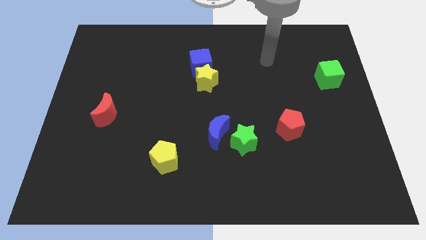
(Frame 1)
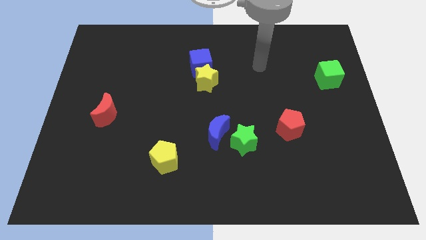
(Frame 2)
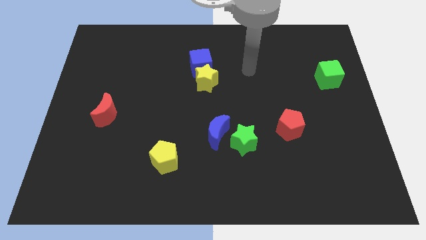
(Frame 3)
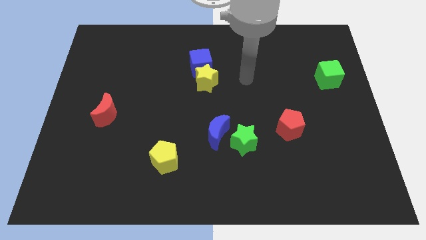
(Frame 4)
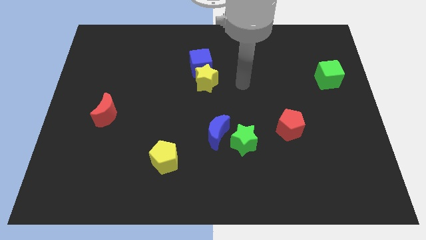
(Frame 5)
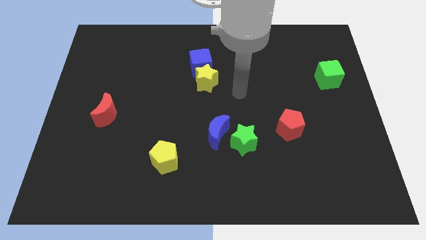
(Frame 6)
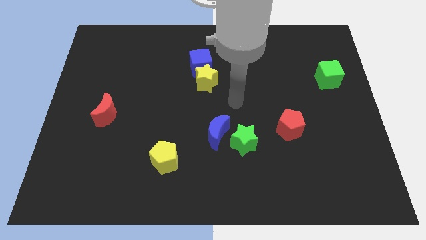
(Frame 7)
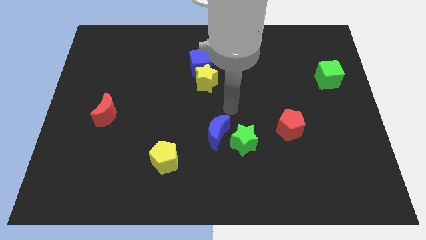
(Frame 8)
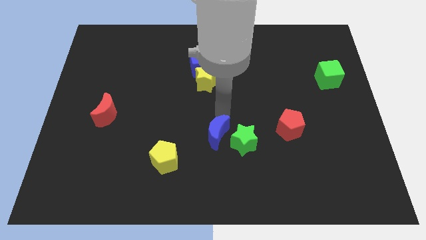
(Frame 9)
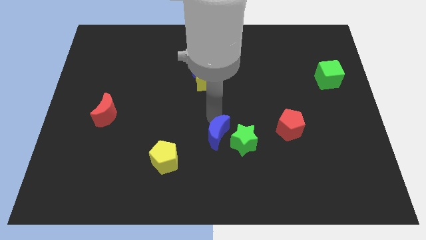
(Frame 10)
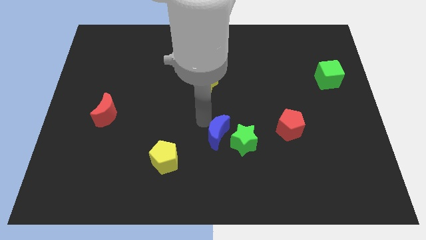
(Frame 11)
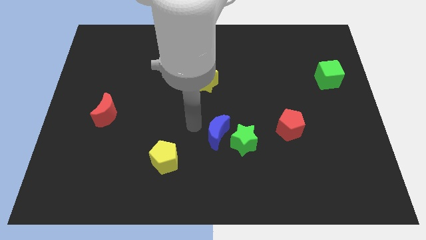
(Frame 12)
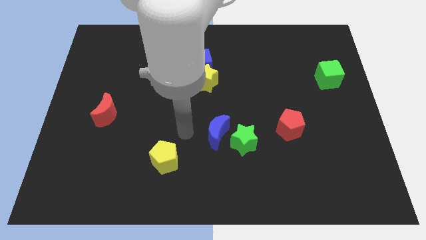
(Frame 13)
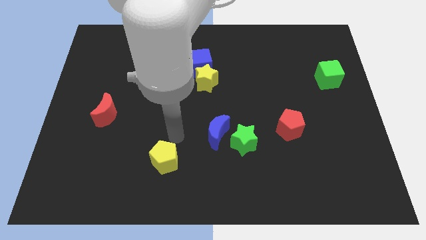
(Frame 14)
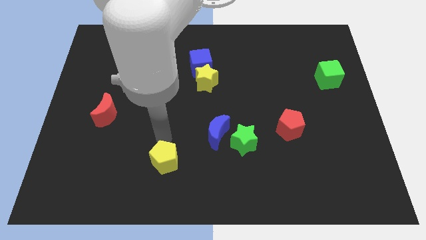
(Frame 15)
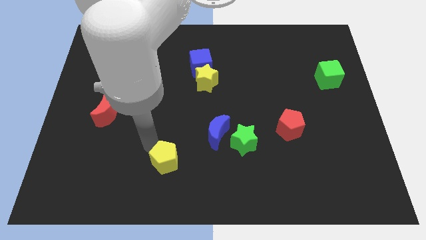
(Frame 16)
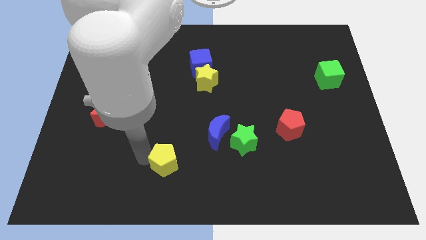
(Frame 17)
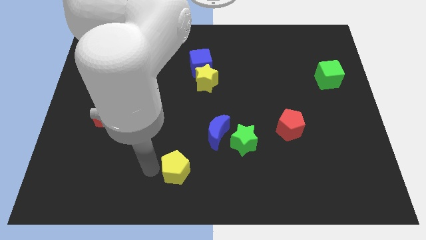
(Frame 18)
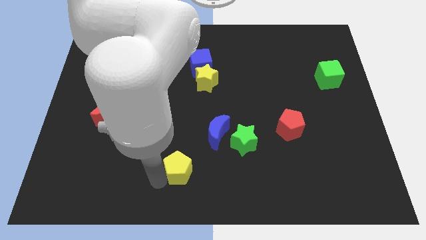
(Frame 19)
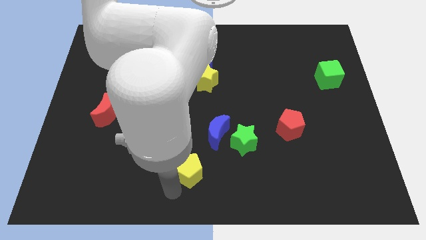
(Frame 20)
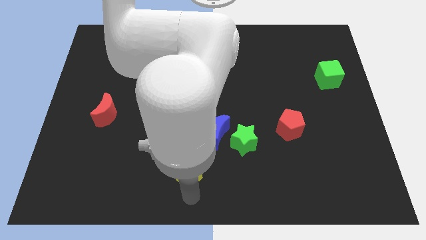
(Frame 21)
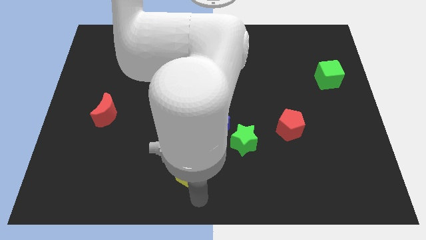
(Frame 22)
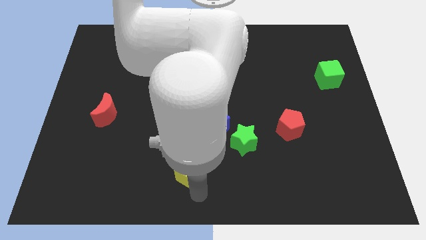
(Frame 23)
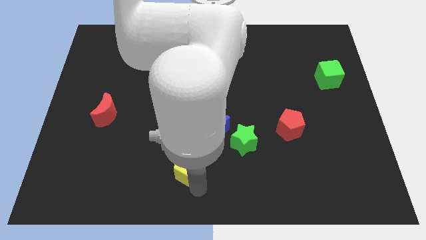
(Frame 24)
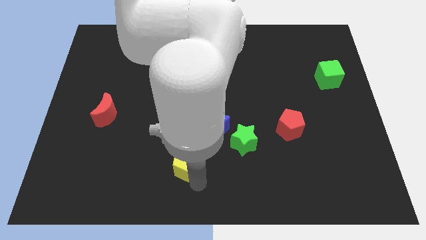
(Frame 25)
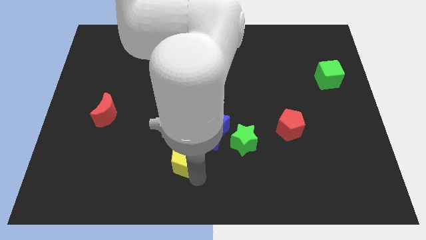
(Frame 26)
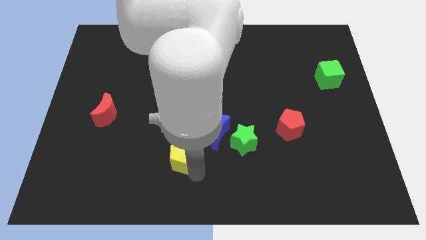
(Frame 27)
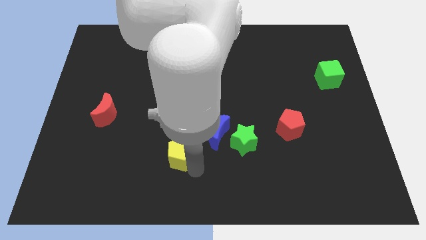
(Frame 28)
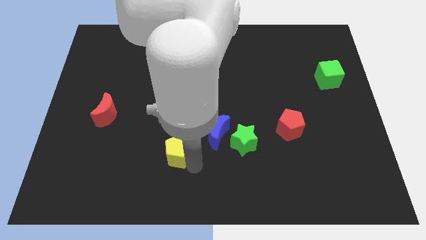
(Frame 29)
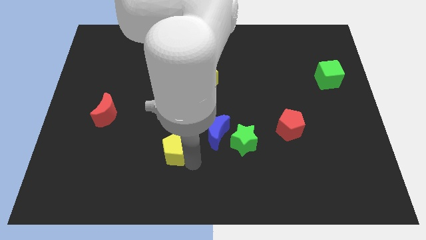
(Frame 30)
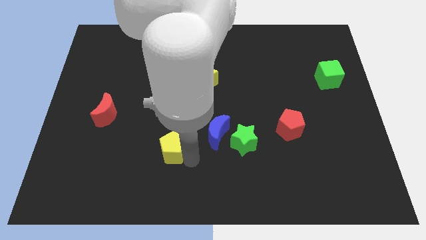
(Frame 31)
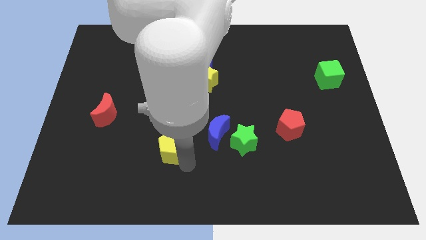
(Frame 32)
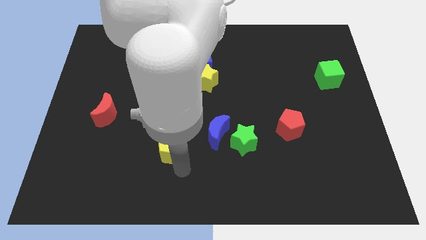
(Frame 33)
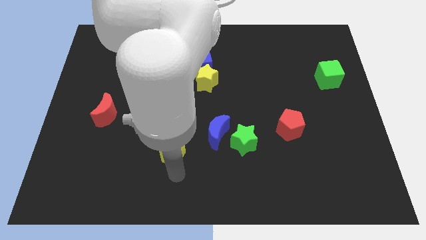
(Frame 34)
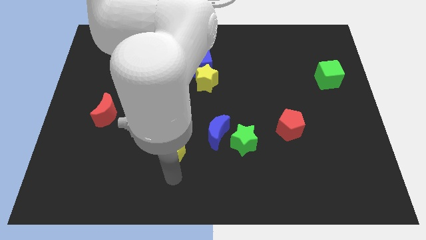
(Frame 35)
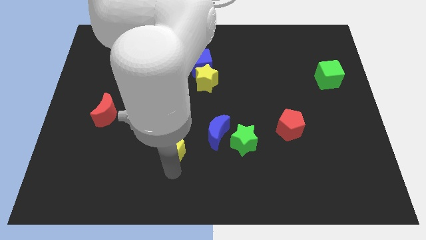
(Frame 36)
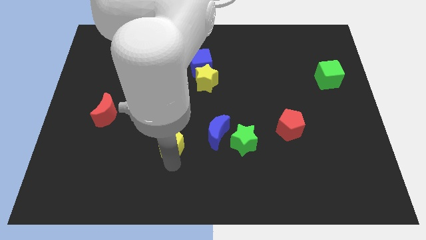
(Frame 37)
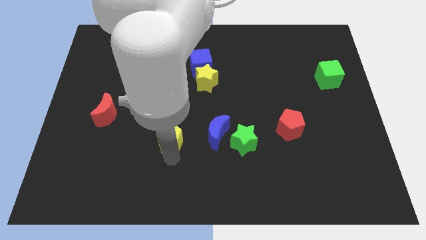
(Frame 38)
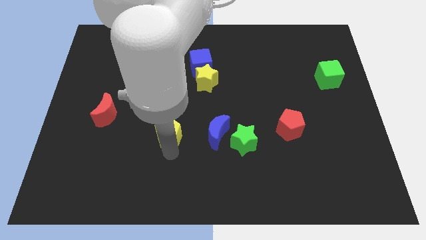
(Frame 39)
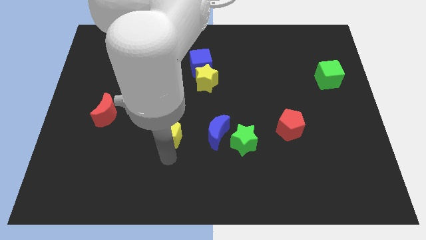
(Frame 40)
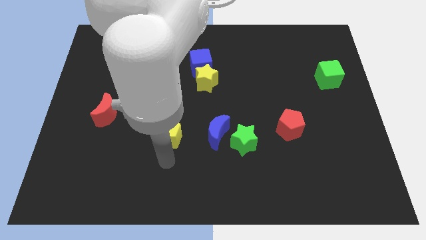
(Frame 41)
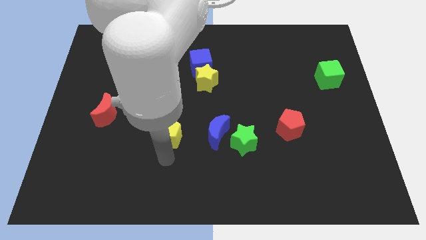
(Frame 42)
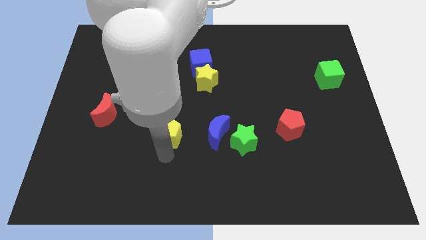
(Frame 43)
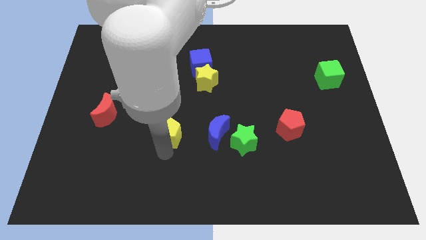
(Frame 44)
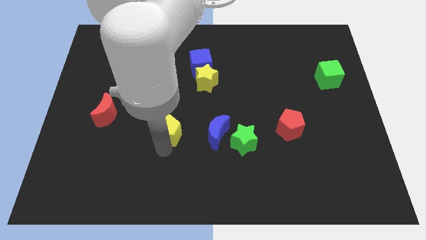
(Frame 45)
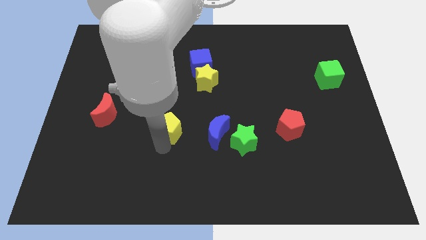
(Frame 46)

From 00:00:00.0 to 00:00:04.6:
slightly slide the yellow pentagon upwards

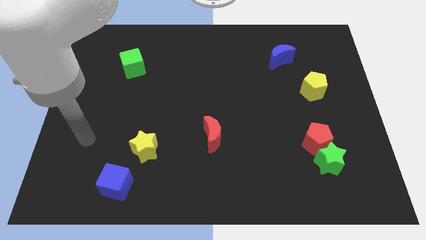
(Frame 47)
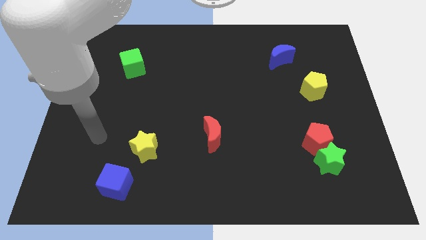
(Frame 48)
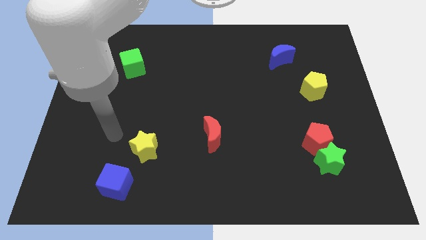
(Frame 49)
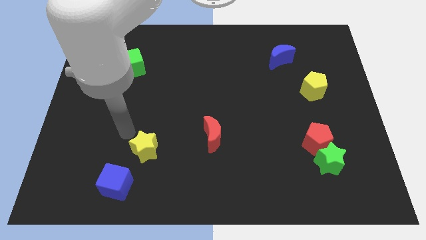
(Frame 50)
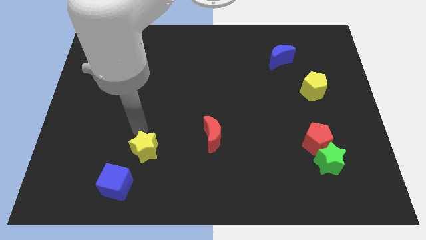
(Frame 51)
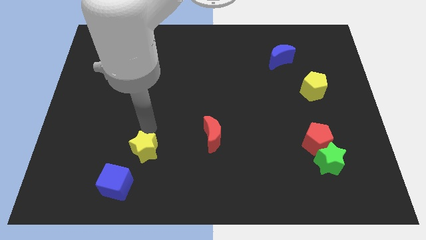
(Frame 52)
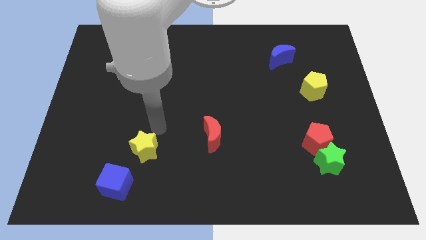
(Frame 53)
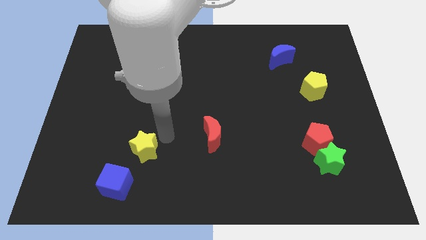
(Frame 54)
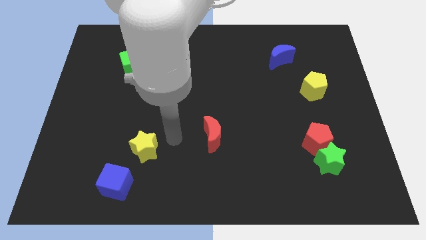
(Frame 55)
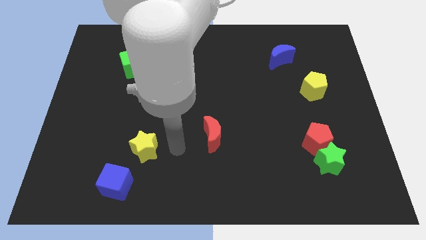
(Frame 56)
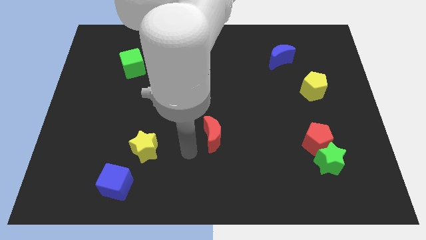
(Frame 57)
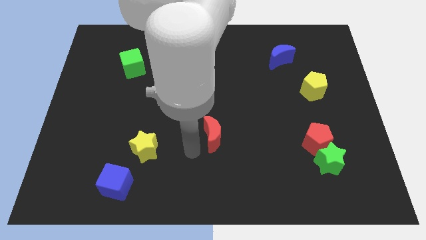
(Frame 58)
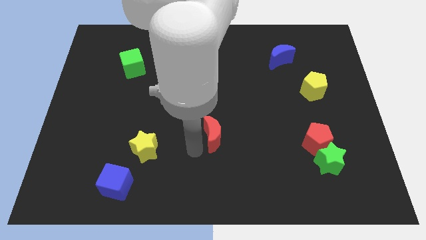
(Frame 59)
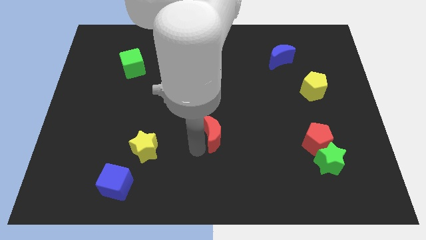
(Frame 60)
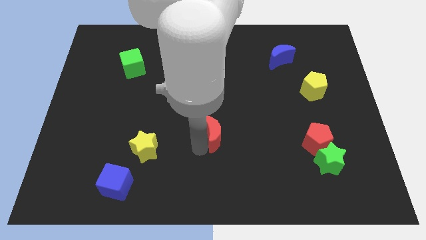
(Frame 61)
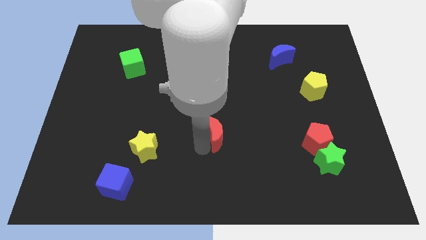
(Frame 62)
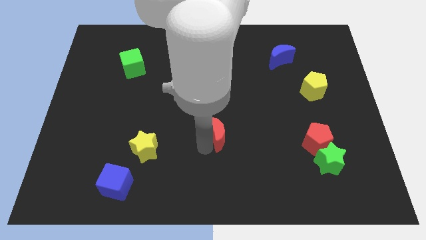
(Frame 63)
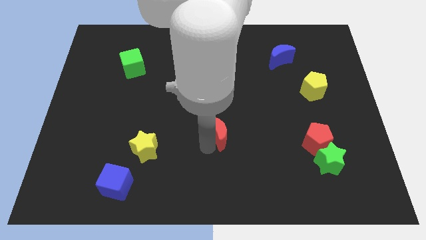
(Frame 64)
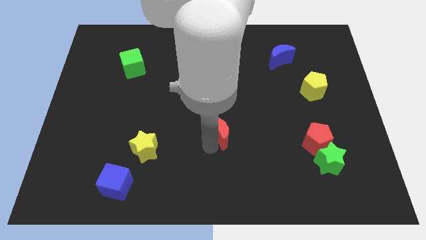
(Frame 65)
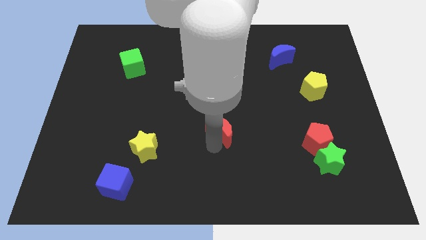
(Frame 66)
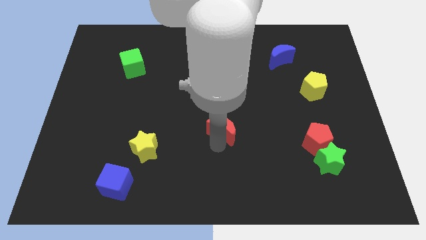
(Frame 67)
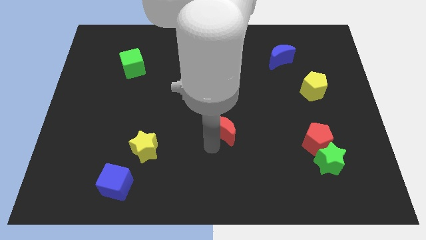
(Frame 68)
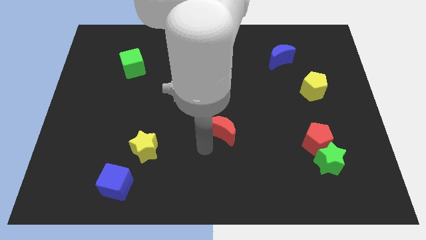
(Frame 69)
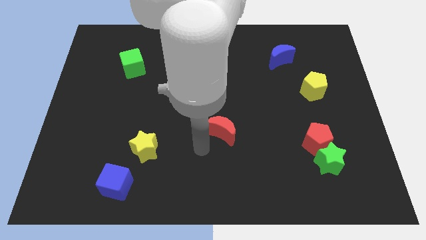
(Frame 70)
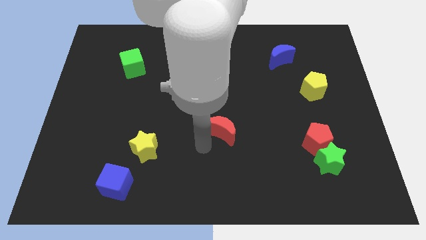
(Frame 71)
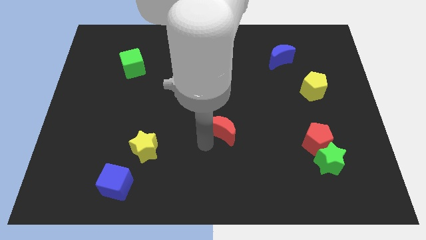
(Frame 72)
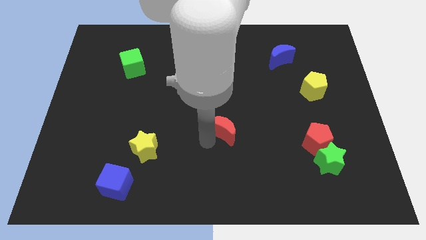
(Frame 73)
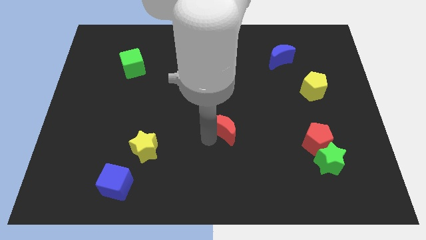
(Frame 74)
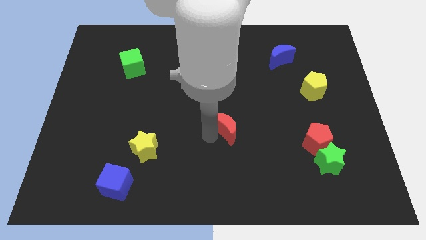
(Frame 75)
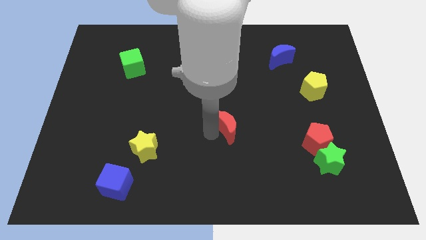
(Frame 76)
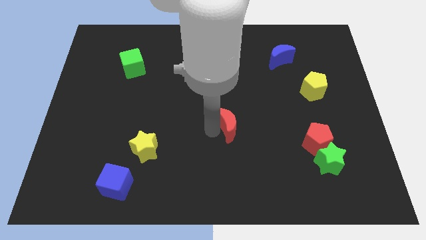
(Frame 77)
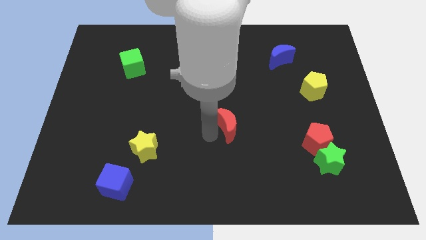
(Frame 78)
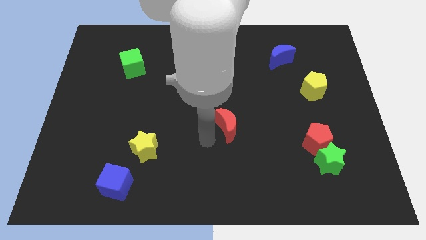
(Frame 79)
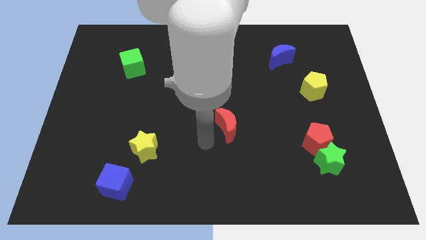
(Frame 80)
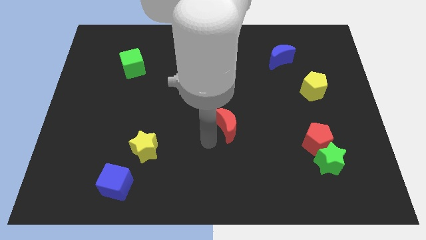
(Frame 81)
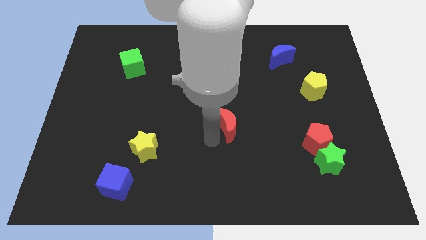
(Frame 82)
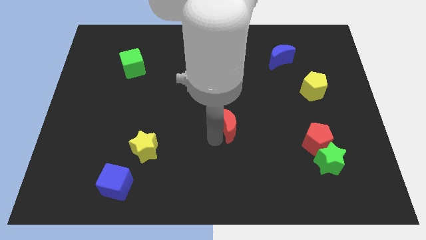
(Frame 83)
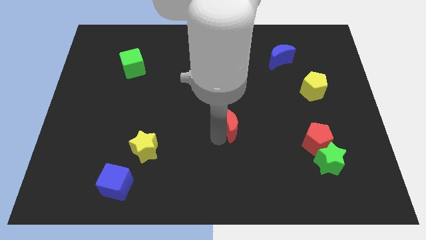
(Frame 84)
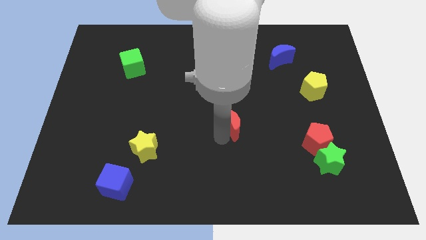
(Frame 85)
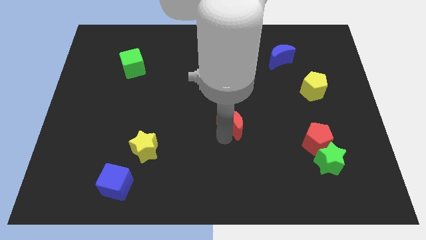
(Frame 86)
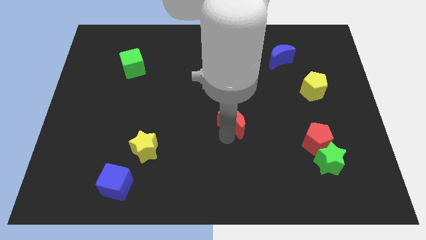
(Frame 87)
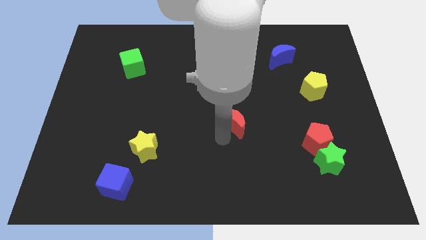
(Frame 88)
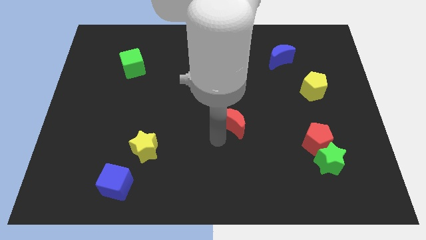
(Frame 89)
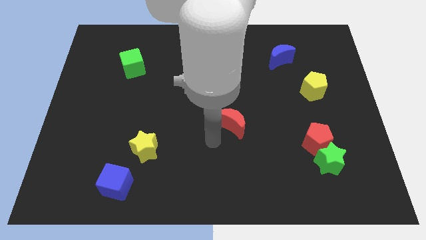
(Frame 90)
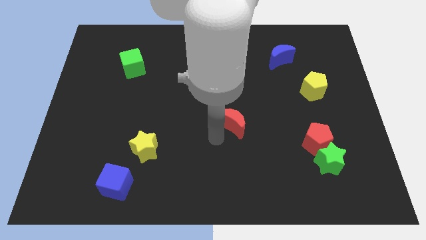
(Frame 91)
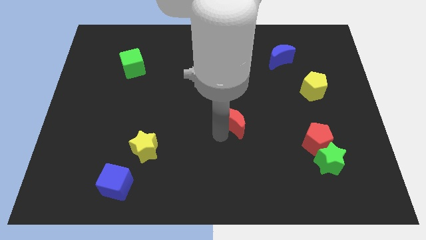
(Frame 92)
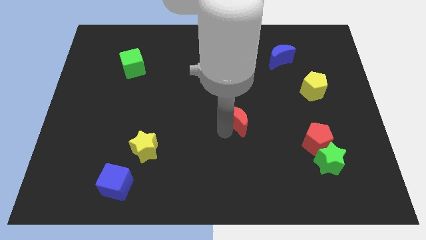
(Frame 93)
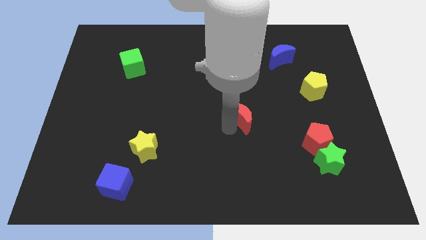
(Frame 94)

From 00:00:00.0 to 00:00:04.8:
move the red moon up and to the right diagonally a little bit
